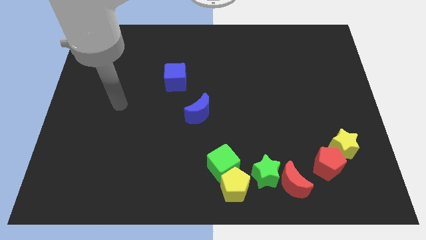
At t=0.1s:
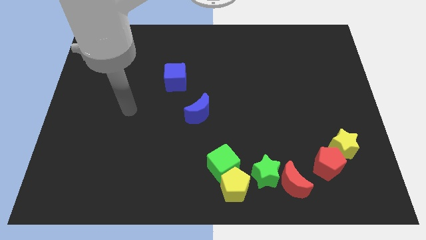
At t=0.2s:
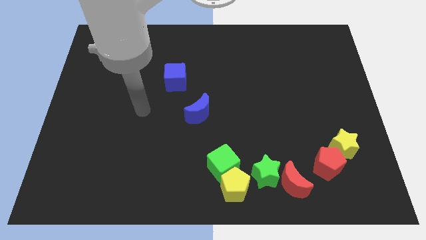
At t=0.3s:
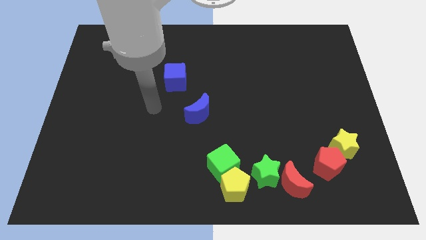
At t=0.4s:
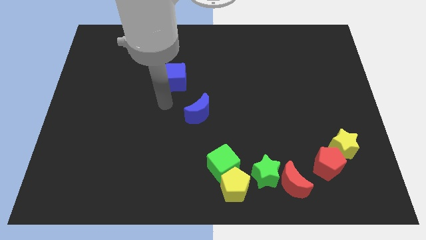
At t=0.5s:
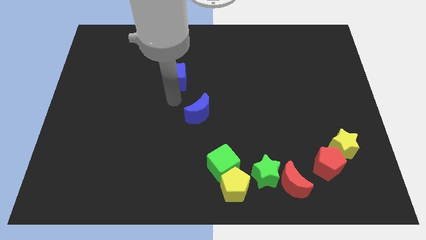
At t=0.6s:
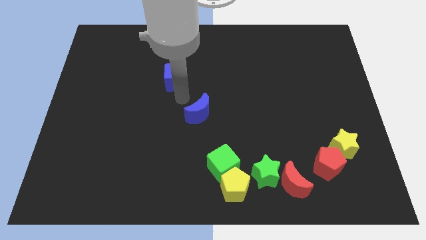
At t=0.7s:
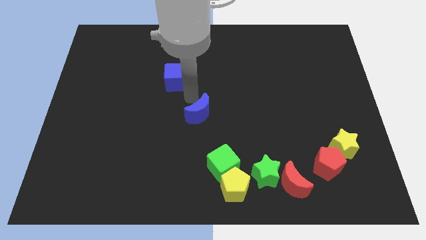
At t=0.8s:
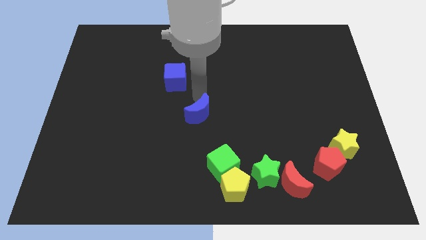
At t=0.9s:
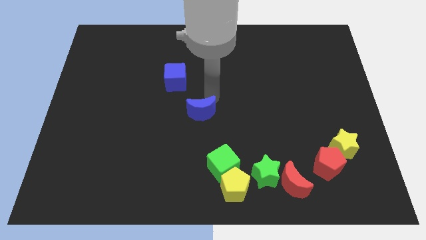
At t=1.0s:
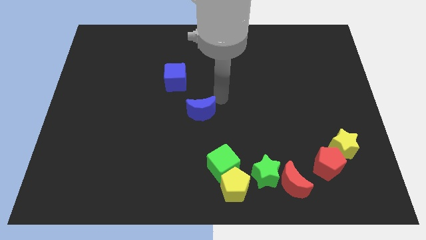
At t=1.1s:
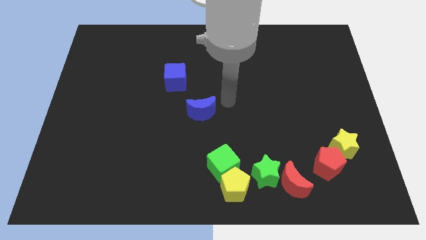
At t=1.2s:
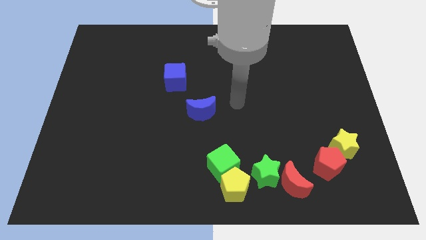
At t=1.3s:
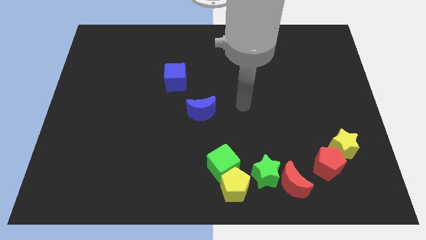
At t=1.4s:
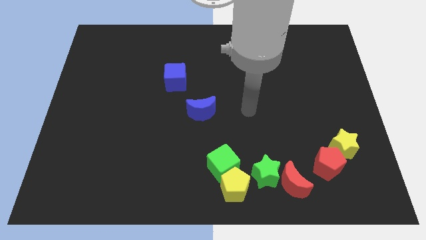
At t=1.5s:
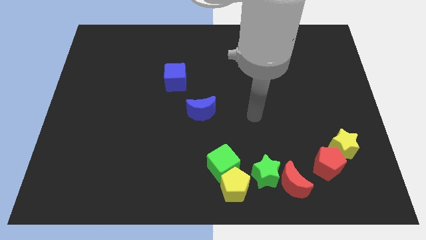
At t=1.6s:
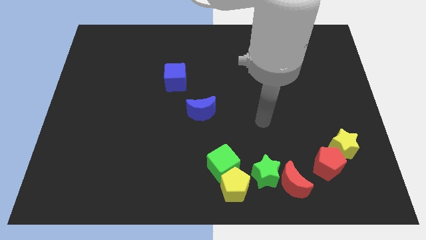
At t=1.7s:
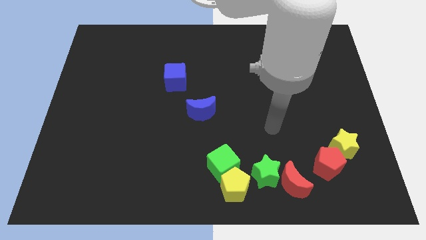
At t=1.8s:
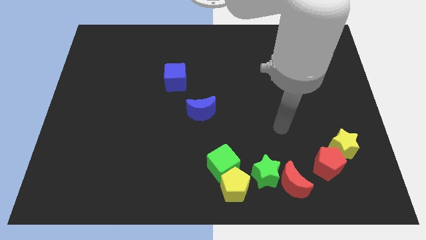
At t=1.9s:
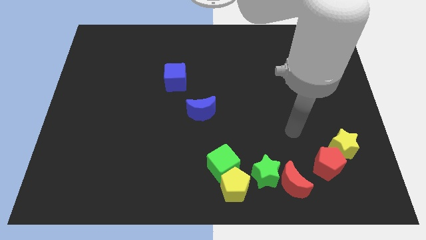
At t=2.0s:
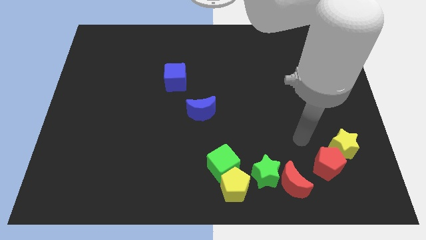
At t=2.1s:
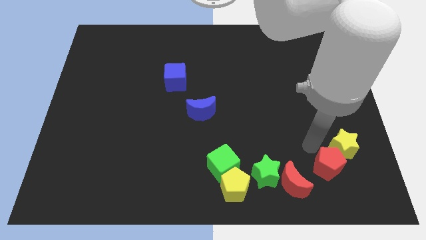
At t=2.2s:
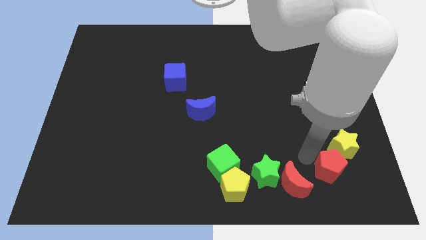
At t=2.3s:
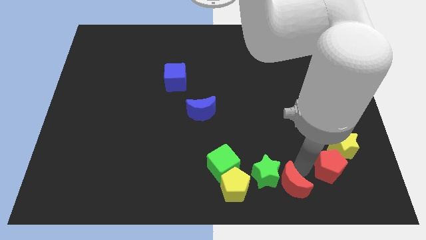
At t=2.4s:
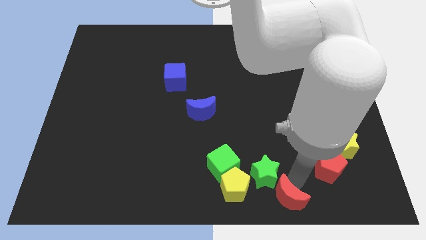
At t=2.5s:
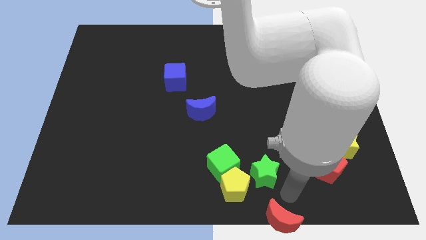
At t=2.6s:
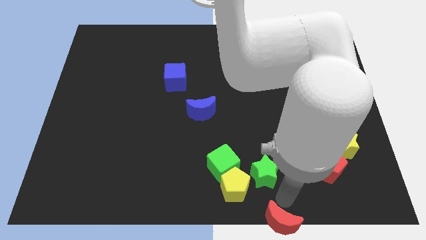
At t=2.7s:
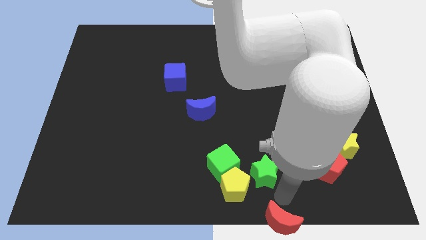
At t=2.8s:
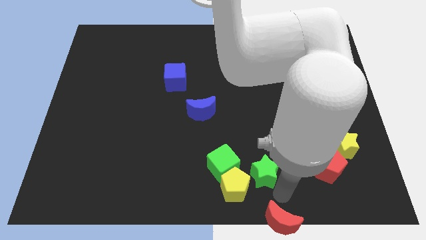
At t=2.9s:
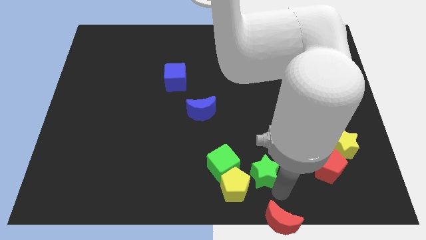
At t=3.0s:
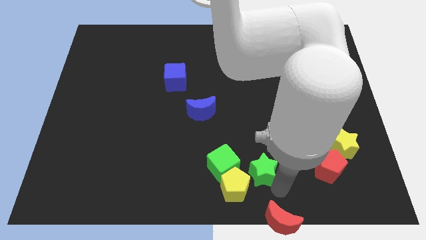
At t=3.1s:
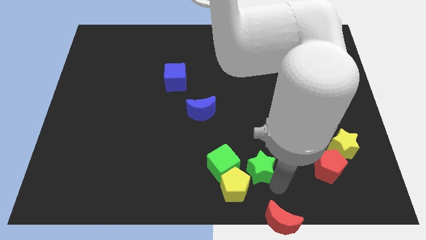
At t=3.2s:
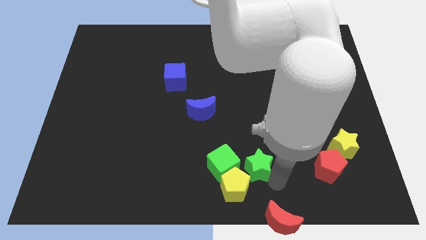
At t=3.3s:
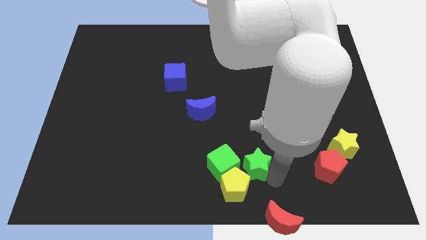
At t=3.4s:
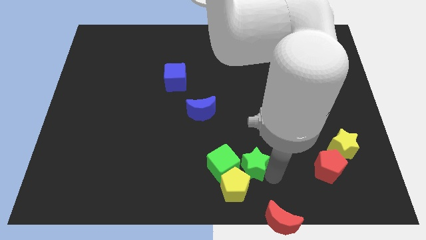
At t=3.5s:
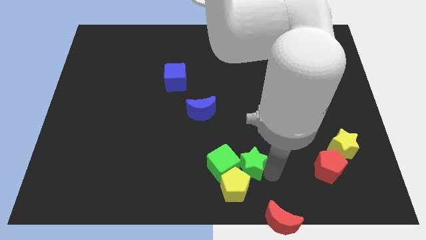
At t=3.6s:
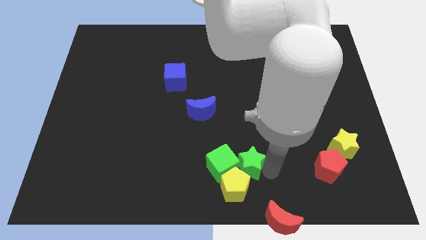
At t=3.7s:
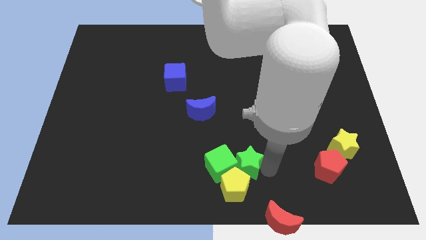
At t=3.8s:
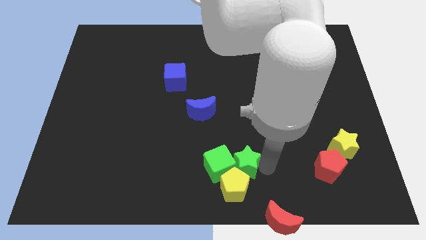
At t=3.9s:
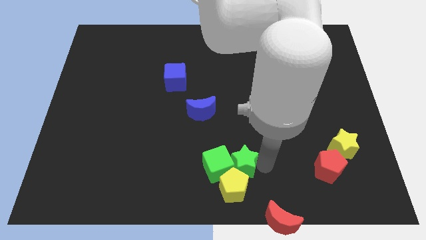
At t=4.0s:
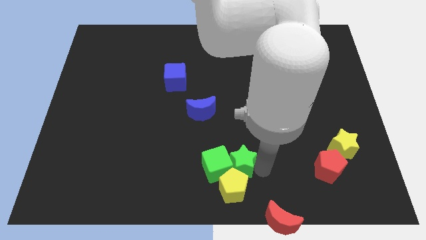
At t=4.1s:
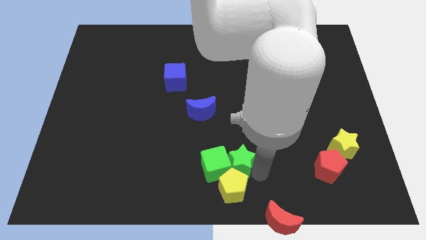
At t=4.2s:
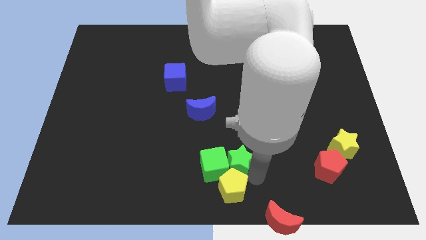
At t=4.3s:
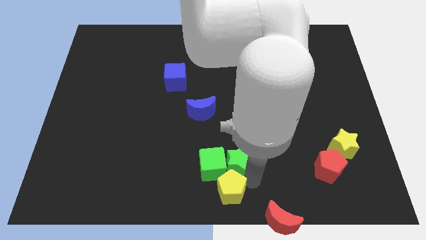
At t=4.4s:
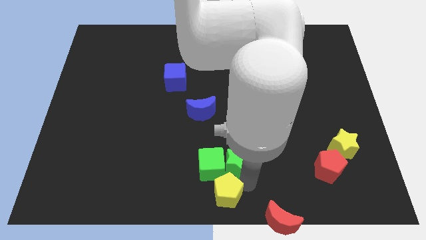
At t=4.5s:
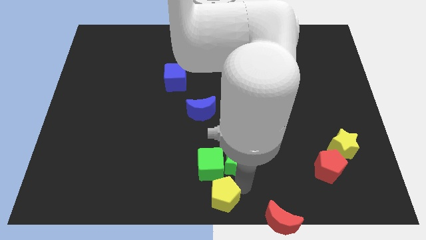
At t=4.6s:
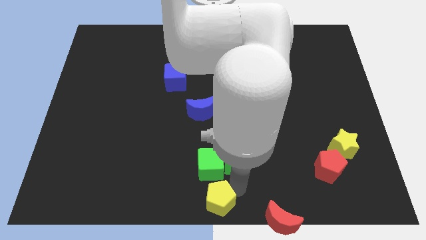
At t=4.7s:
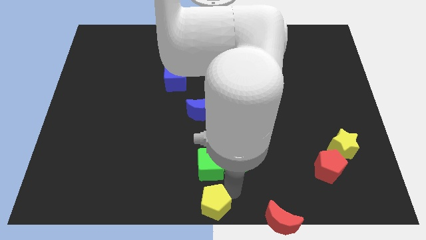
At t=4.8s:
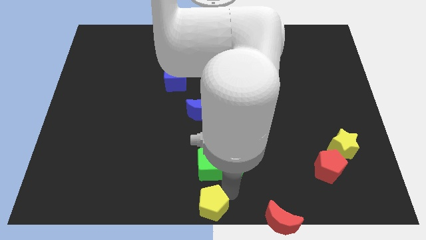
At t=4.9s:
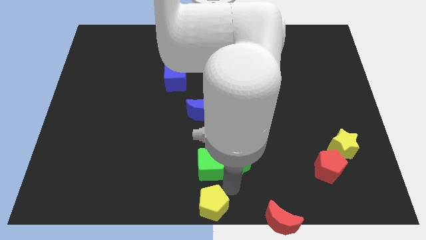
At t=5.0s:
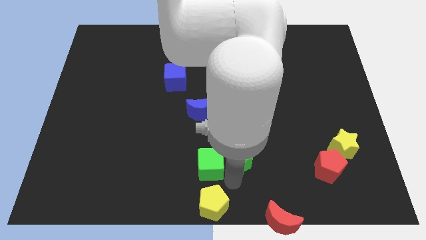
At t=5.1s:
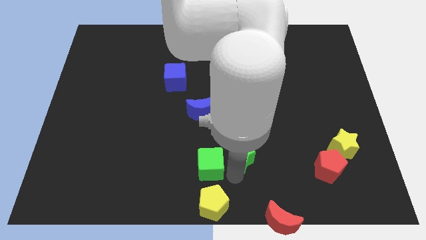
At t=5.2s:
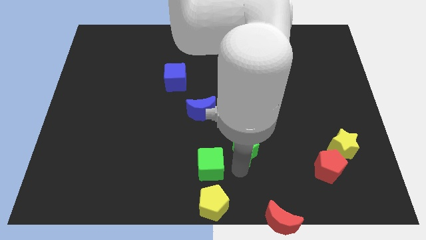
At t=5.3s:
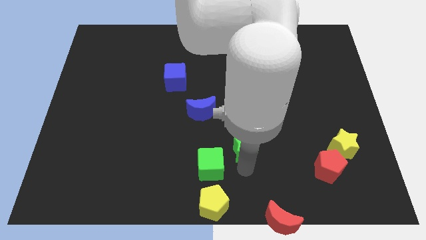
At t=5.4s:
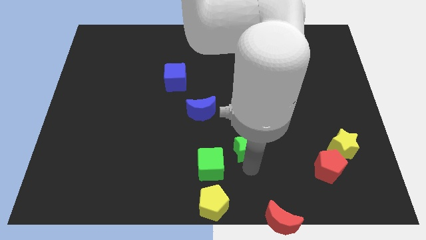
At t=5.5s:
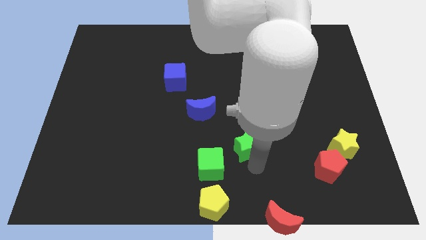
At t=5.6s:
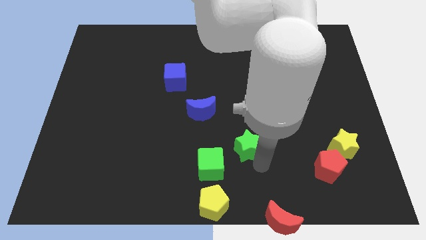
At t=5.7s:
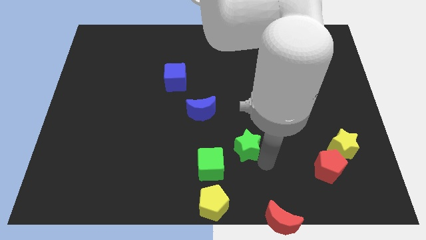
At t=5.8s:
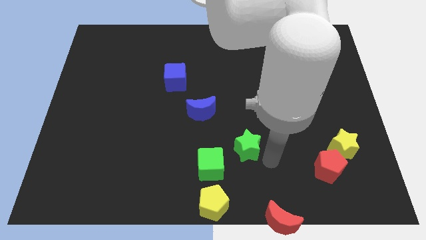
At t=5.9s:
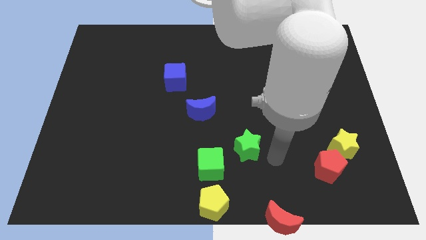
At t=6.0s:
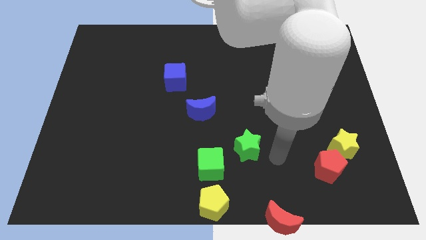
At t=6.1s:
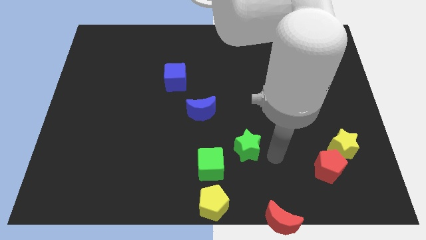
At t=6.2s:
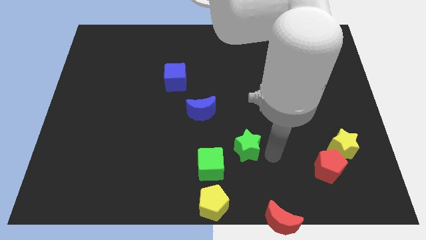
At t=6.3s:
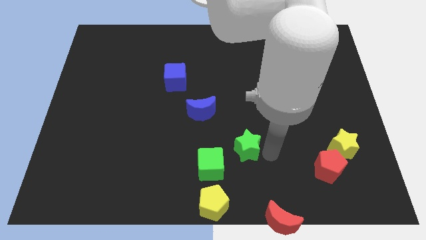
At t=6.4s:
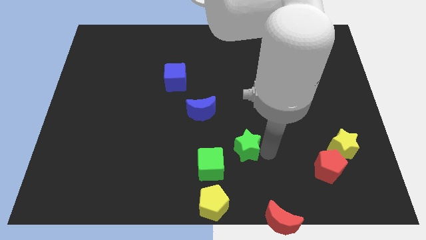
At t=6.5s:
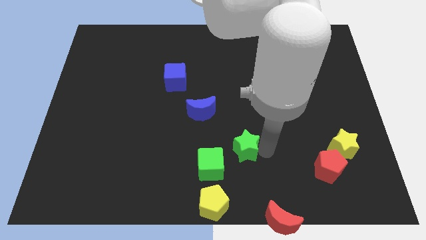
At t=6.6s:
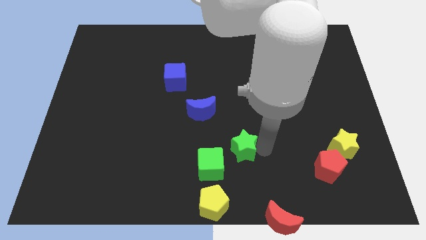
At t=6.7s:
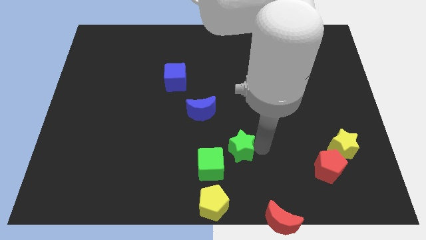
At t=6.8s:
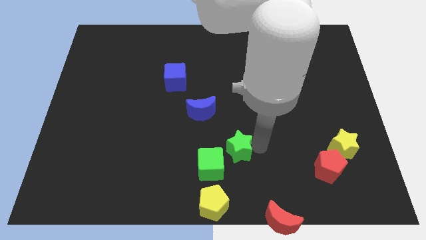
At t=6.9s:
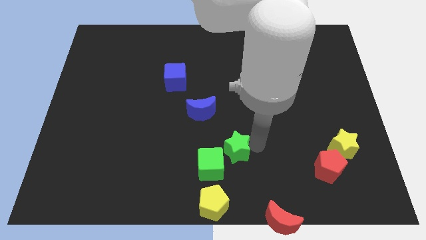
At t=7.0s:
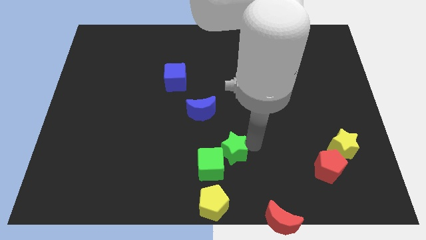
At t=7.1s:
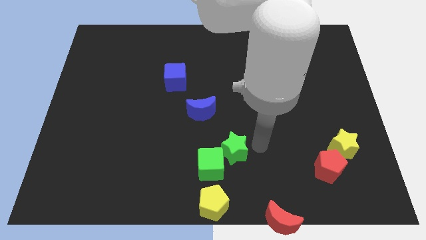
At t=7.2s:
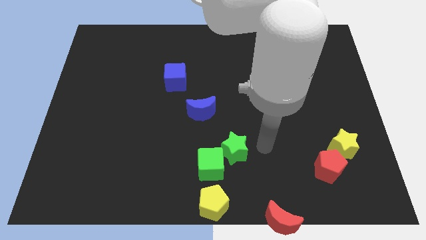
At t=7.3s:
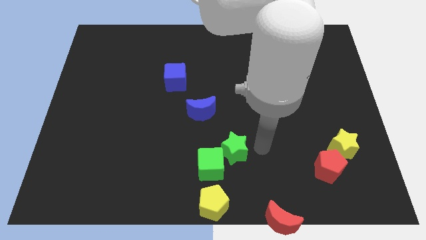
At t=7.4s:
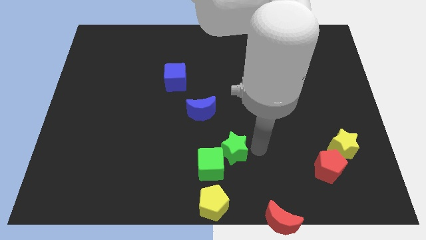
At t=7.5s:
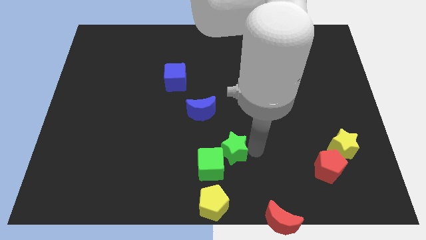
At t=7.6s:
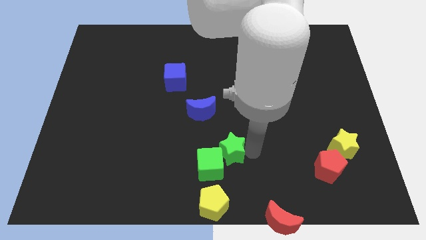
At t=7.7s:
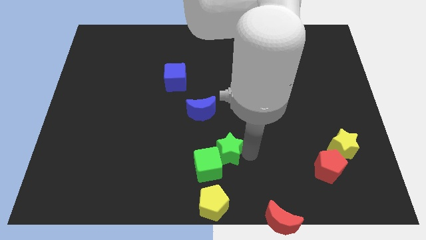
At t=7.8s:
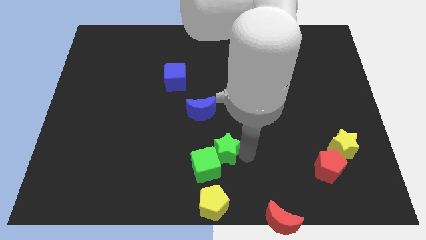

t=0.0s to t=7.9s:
push the green star a little bit left
